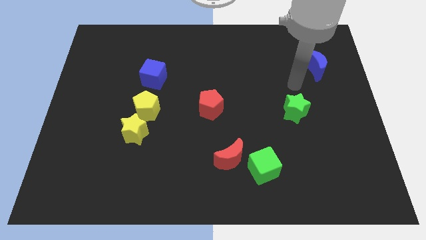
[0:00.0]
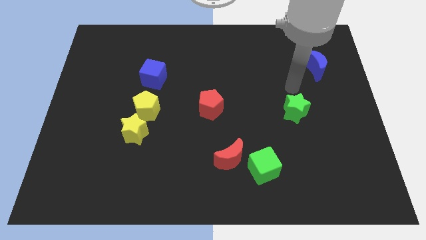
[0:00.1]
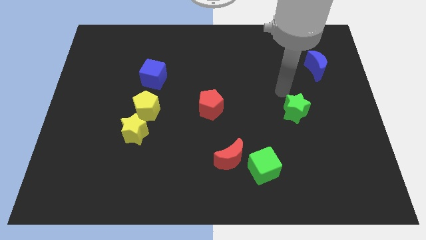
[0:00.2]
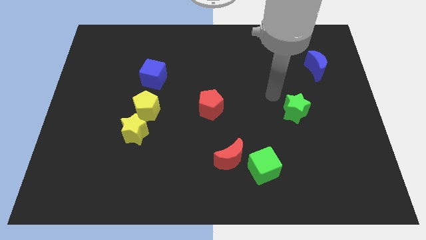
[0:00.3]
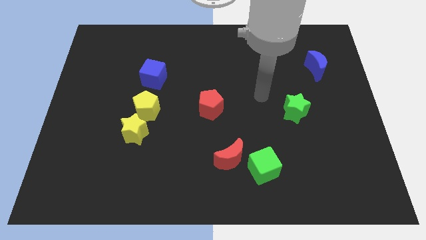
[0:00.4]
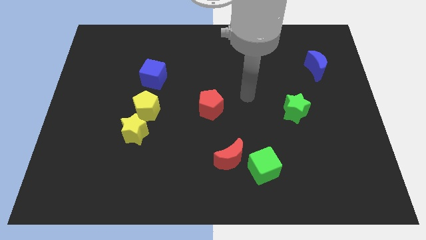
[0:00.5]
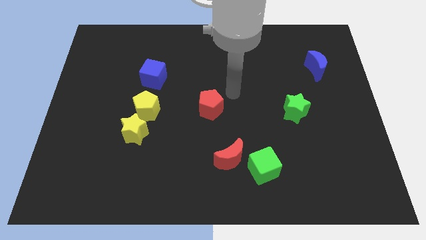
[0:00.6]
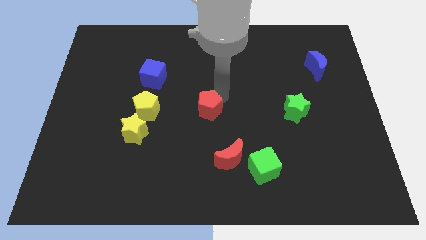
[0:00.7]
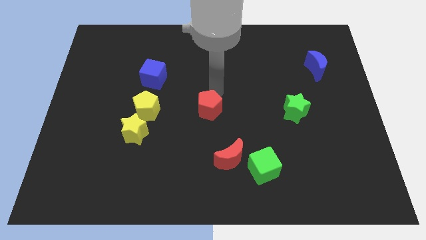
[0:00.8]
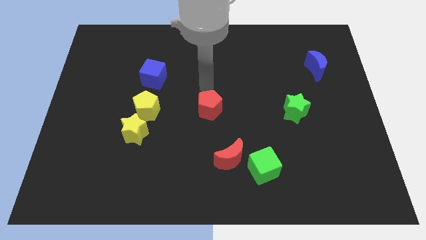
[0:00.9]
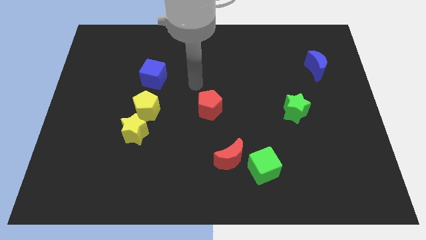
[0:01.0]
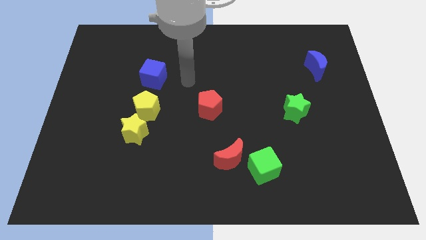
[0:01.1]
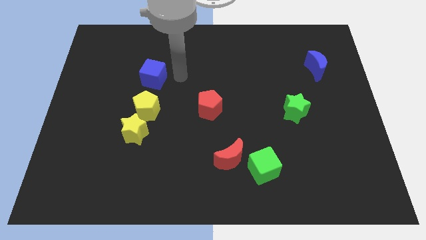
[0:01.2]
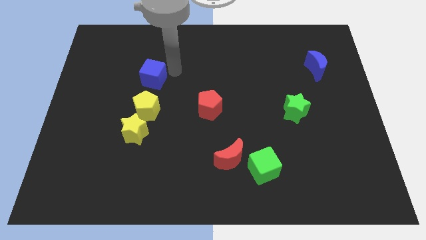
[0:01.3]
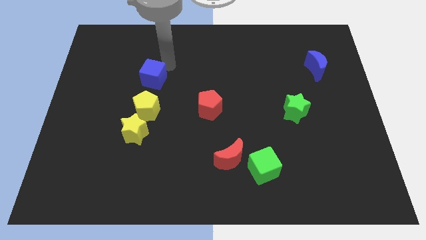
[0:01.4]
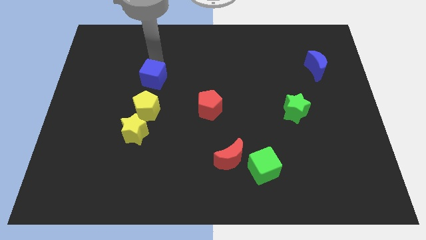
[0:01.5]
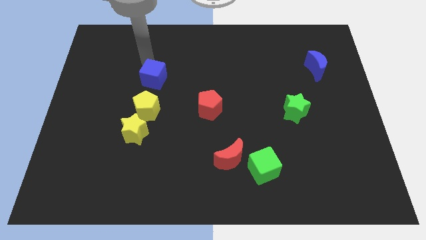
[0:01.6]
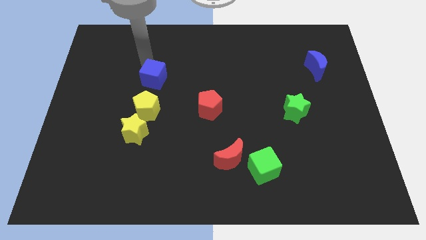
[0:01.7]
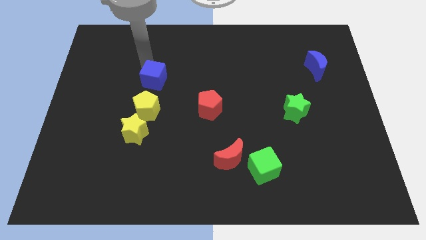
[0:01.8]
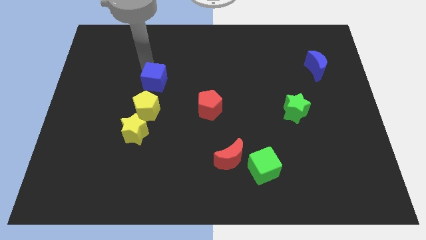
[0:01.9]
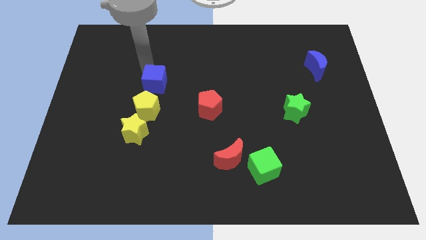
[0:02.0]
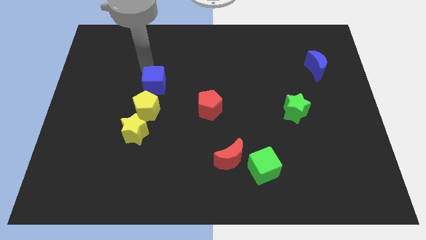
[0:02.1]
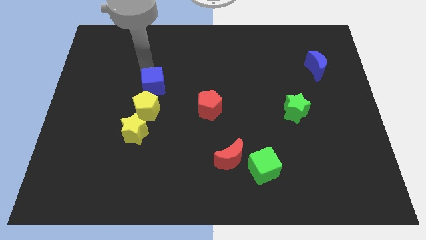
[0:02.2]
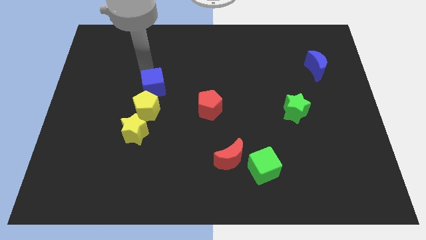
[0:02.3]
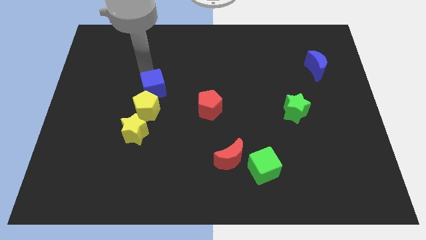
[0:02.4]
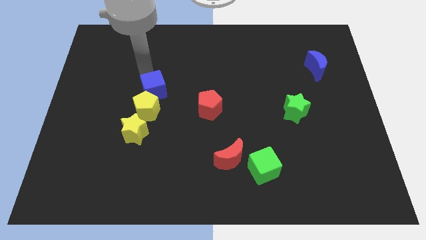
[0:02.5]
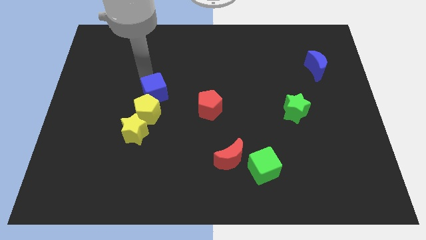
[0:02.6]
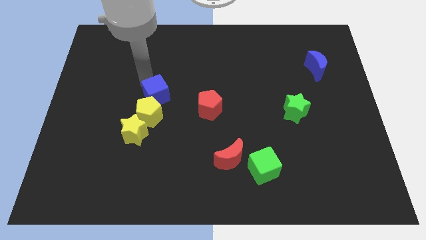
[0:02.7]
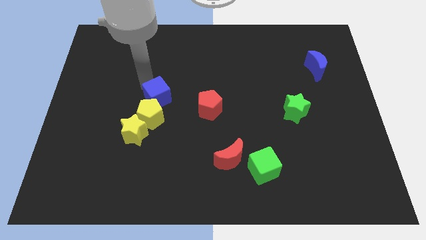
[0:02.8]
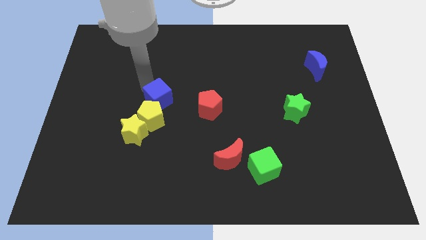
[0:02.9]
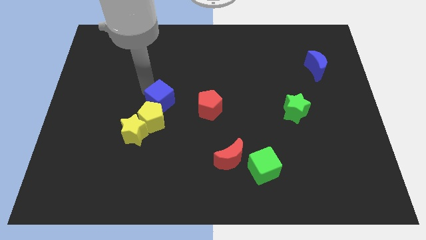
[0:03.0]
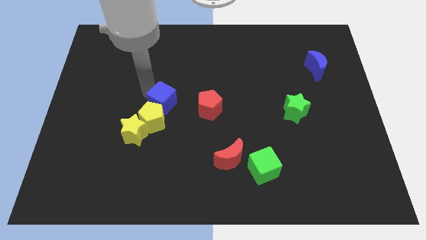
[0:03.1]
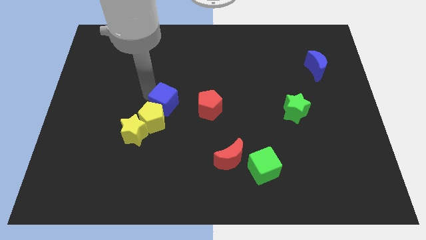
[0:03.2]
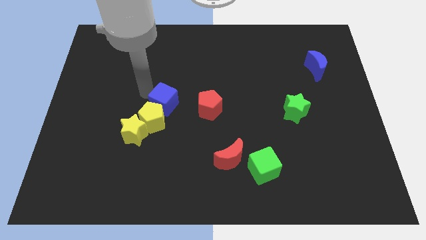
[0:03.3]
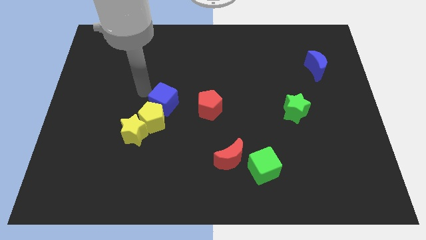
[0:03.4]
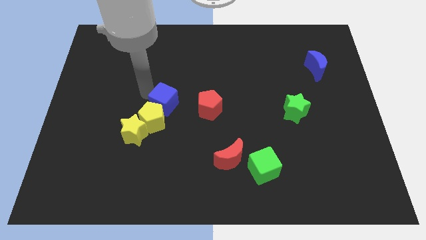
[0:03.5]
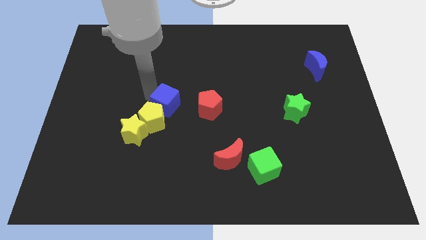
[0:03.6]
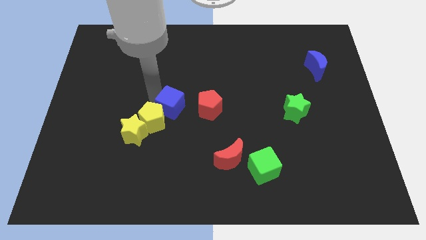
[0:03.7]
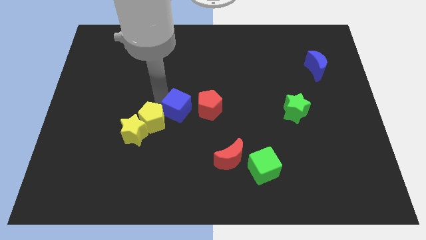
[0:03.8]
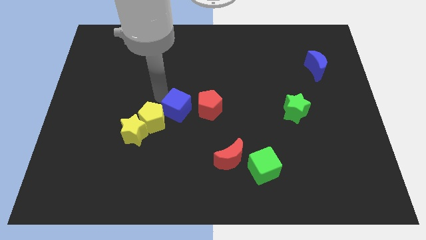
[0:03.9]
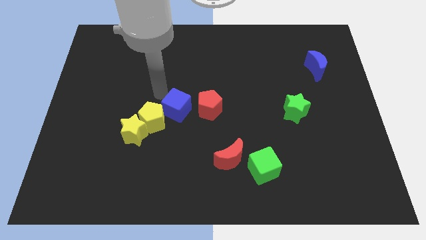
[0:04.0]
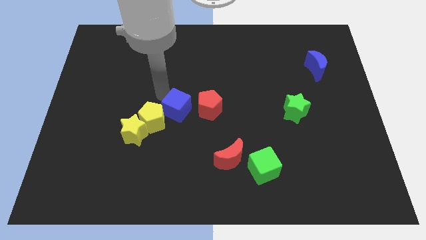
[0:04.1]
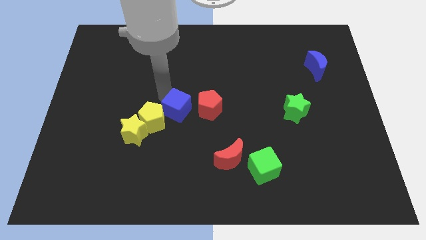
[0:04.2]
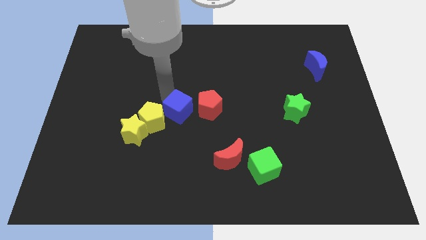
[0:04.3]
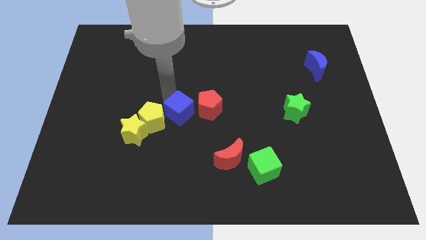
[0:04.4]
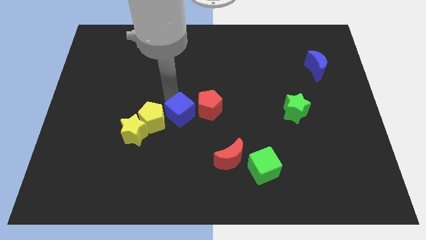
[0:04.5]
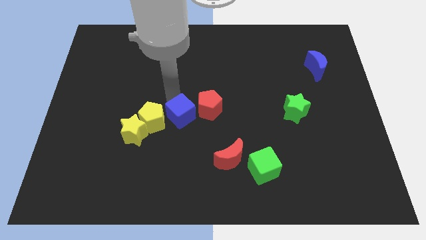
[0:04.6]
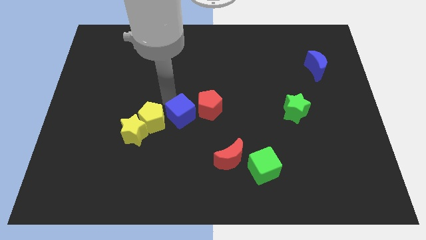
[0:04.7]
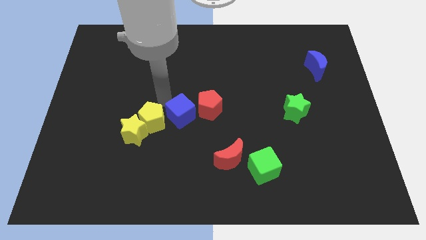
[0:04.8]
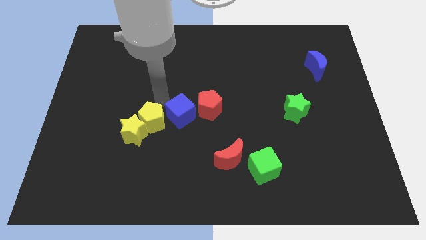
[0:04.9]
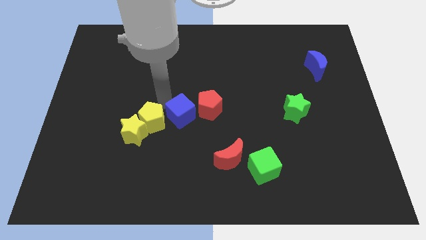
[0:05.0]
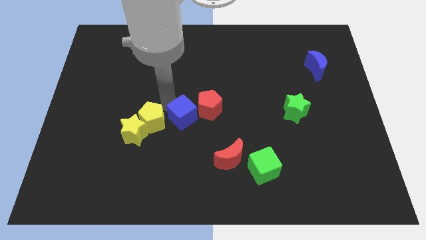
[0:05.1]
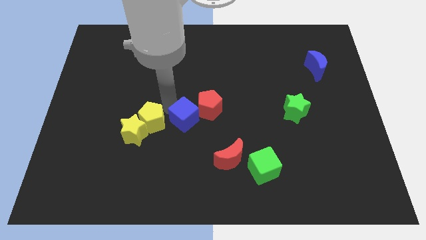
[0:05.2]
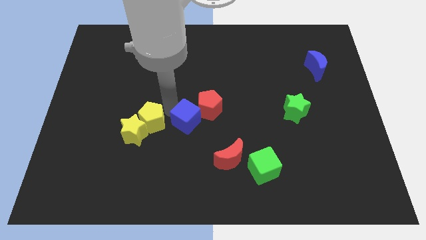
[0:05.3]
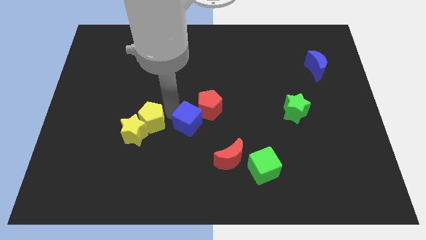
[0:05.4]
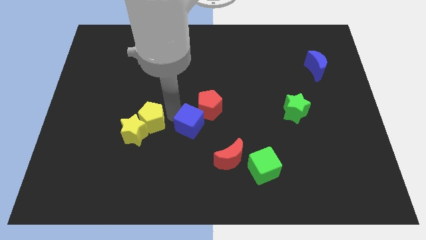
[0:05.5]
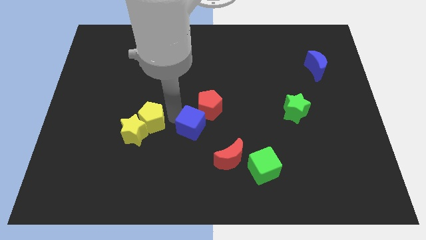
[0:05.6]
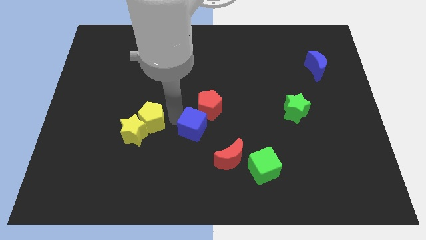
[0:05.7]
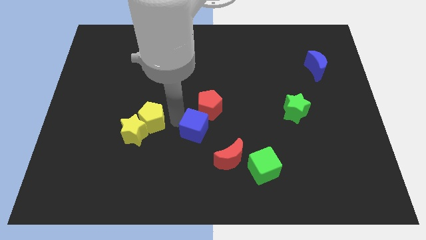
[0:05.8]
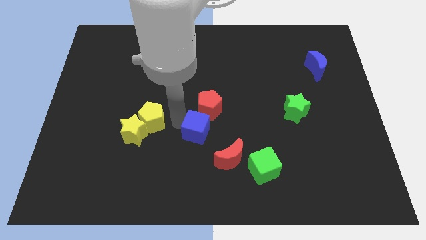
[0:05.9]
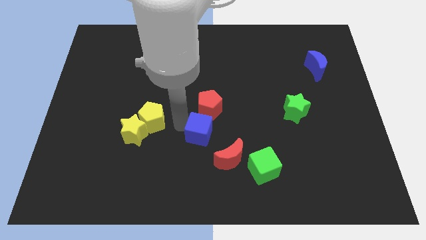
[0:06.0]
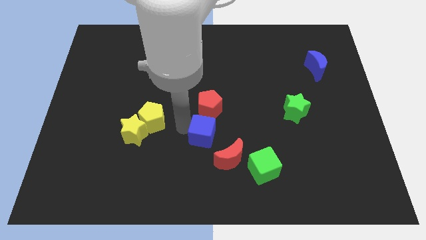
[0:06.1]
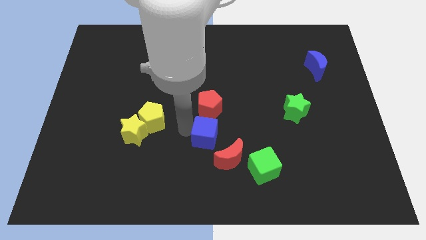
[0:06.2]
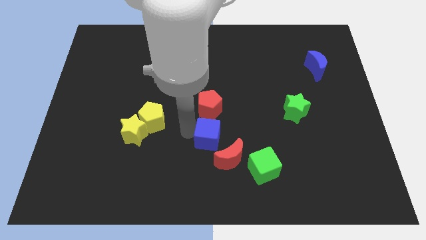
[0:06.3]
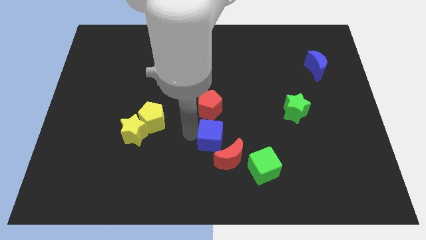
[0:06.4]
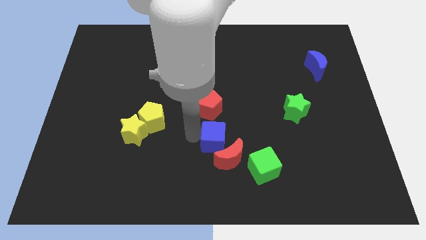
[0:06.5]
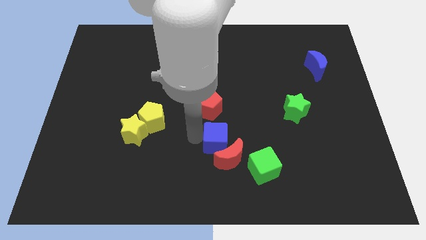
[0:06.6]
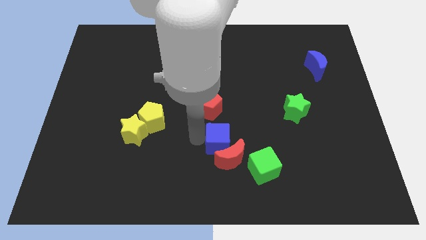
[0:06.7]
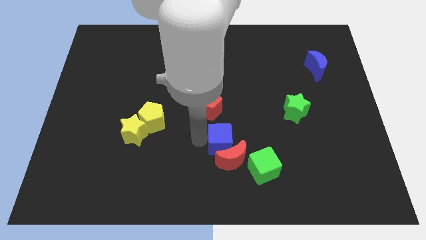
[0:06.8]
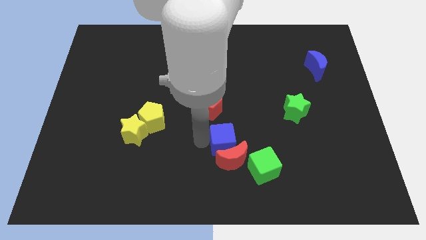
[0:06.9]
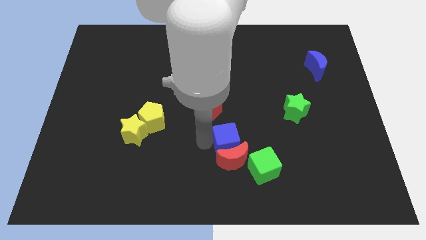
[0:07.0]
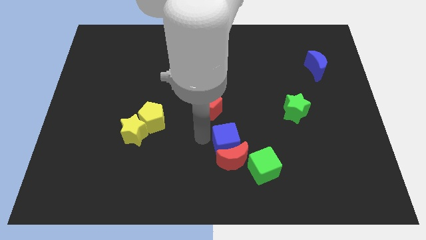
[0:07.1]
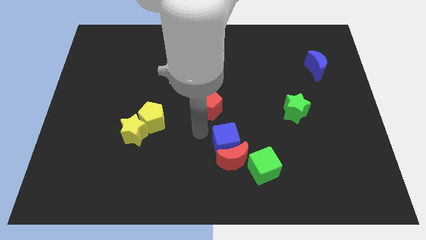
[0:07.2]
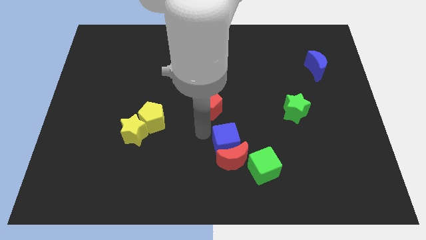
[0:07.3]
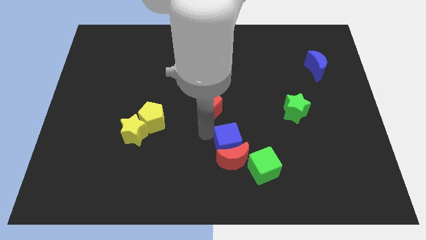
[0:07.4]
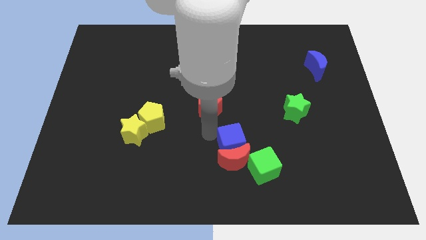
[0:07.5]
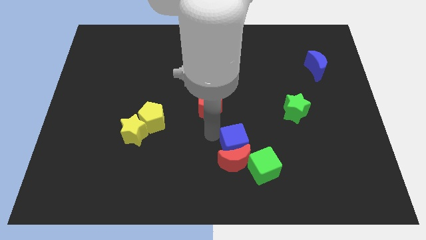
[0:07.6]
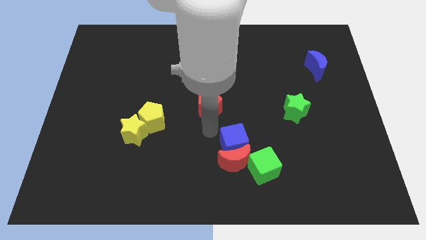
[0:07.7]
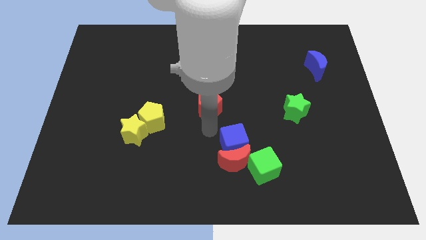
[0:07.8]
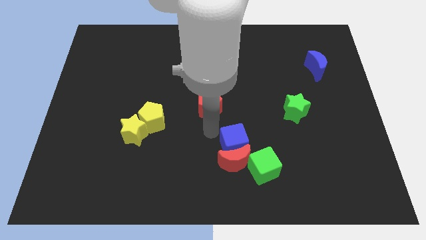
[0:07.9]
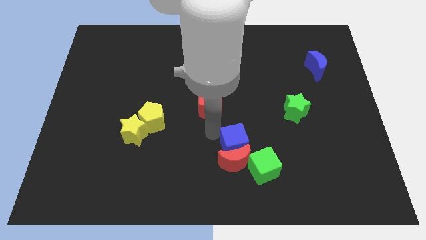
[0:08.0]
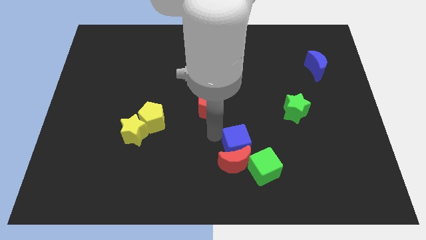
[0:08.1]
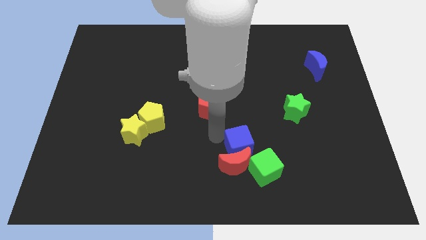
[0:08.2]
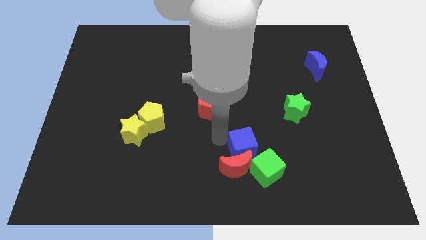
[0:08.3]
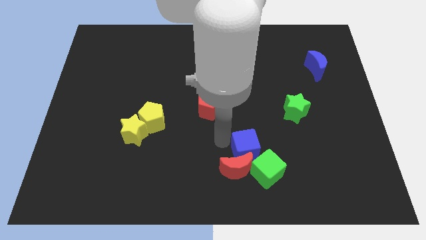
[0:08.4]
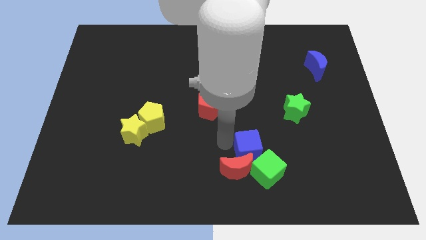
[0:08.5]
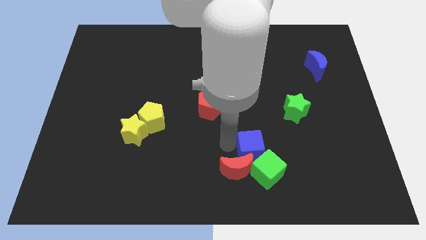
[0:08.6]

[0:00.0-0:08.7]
push the blue cube towards the green cube
